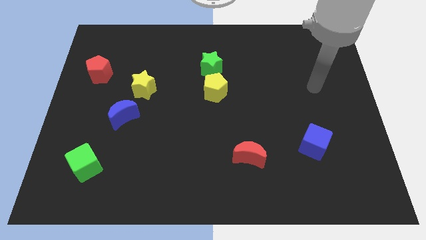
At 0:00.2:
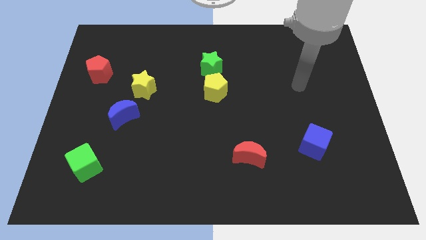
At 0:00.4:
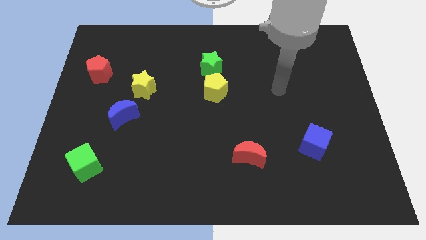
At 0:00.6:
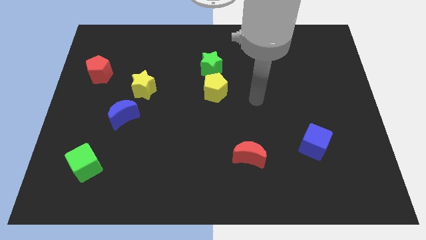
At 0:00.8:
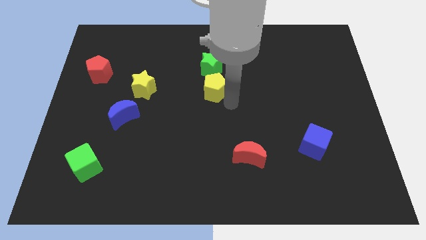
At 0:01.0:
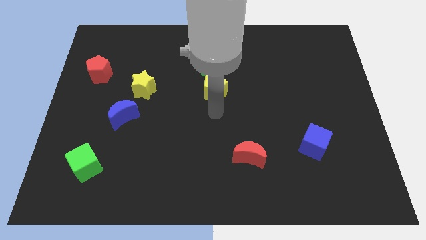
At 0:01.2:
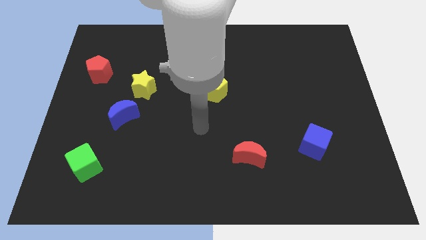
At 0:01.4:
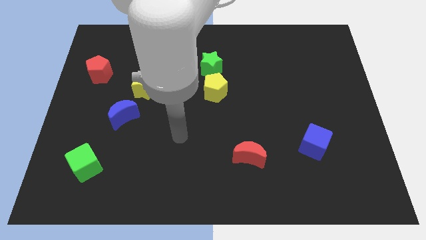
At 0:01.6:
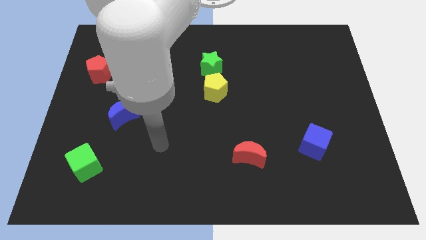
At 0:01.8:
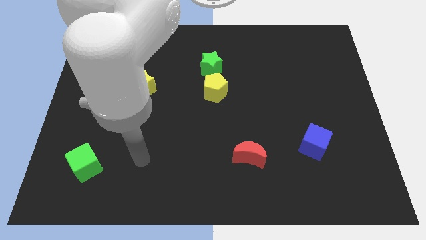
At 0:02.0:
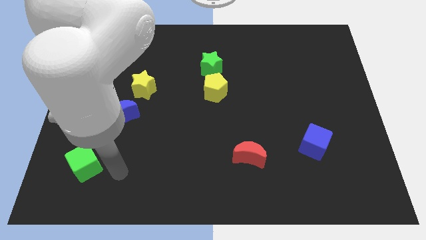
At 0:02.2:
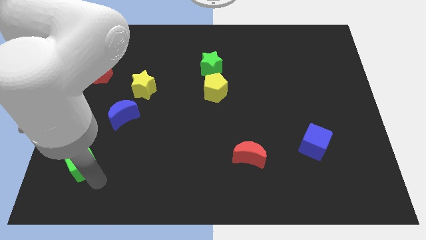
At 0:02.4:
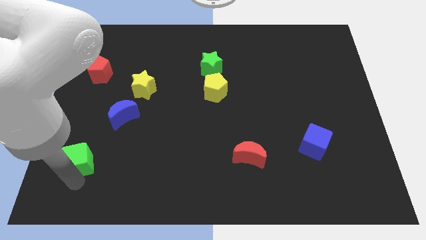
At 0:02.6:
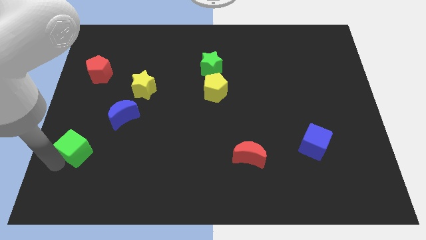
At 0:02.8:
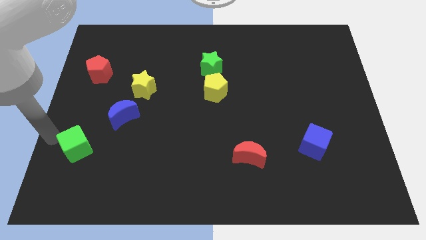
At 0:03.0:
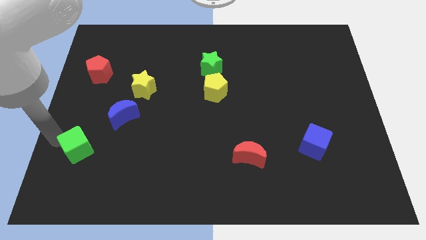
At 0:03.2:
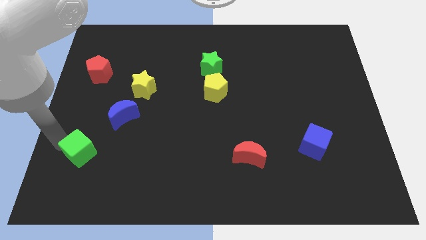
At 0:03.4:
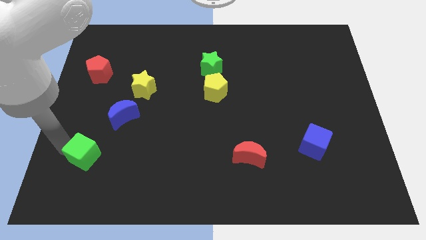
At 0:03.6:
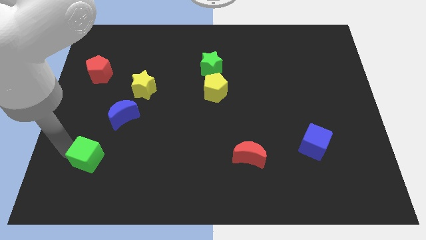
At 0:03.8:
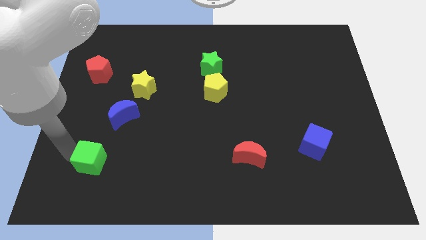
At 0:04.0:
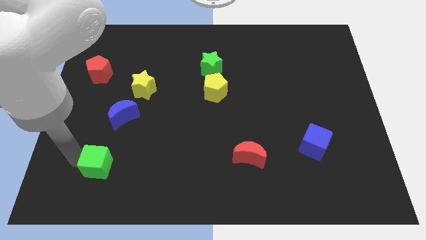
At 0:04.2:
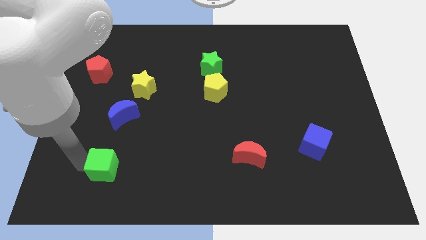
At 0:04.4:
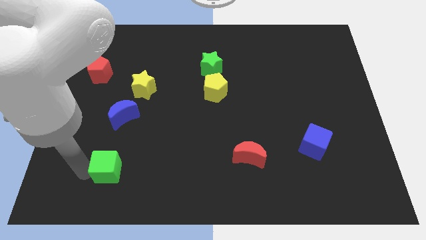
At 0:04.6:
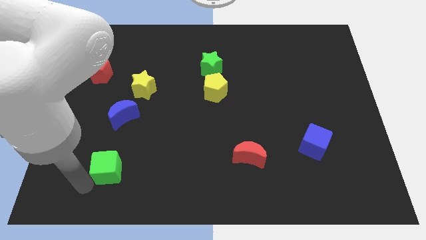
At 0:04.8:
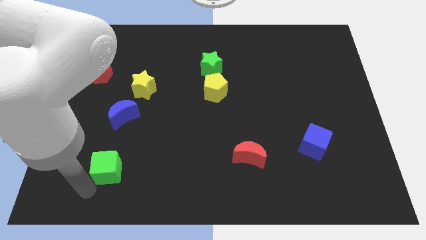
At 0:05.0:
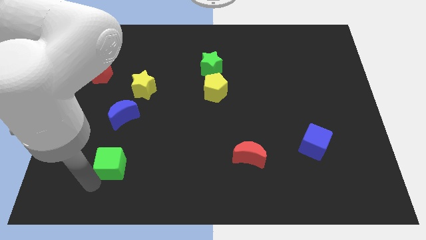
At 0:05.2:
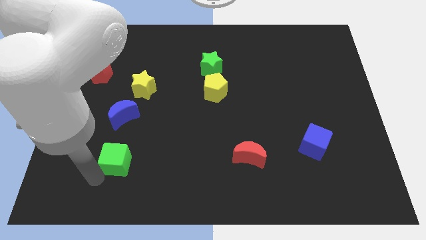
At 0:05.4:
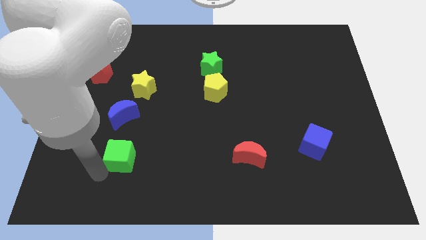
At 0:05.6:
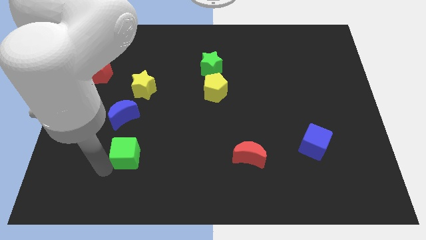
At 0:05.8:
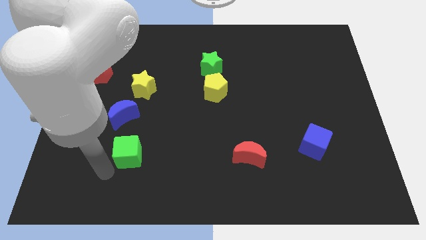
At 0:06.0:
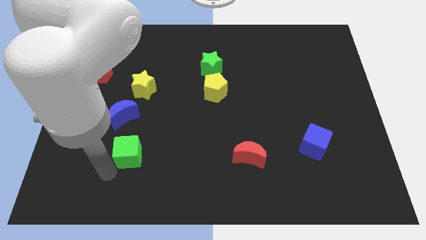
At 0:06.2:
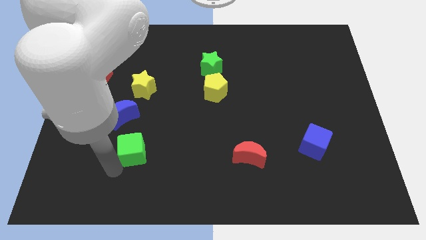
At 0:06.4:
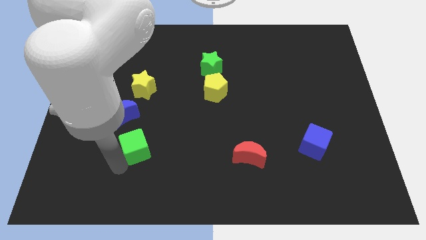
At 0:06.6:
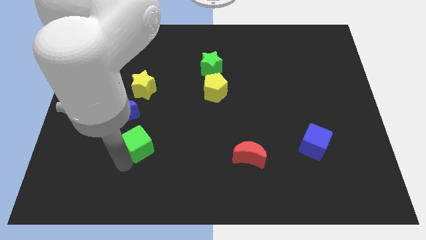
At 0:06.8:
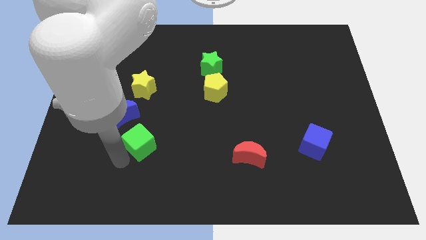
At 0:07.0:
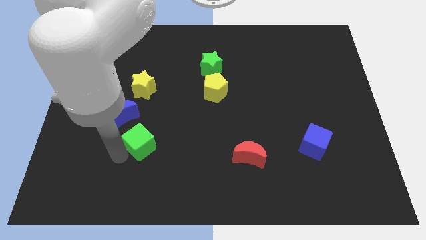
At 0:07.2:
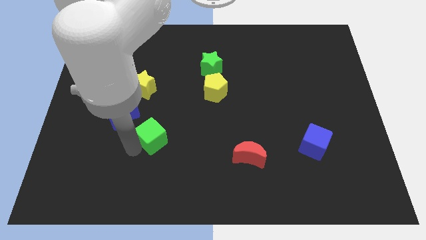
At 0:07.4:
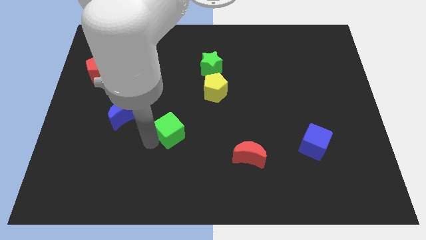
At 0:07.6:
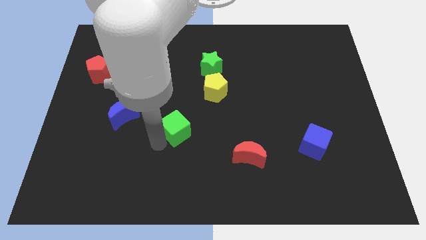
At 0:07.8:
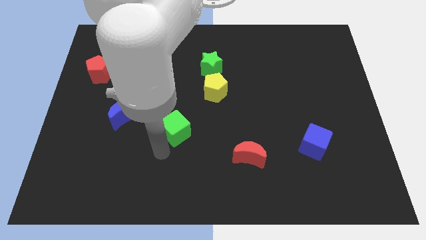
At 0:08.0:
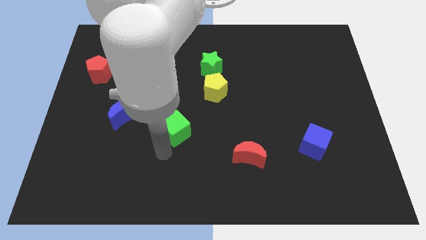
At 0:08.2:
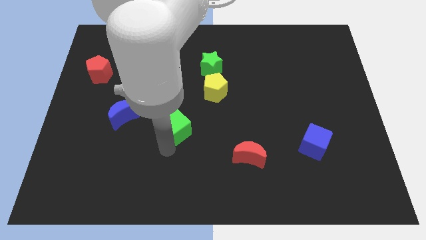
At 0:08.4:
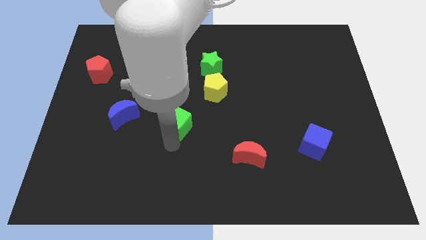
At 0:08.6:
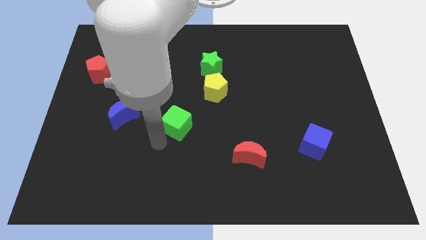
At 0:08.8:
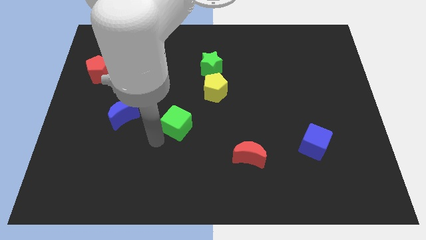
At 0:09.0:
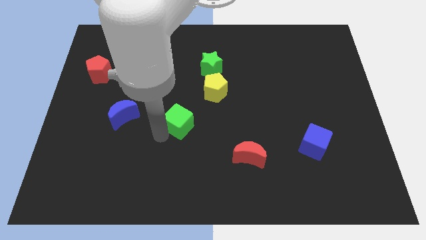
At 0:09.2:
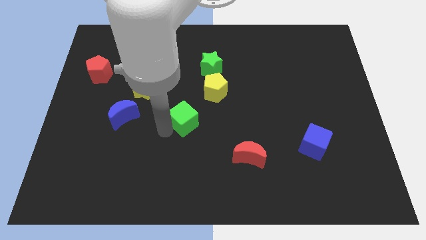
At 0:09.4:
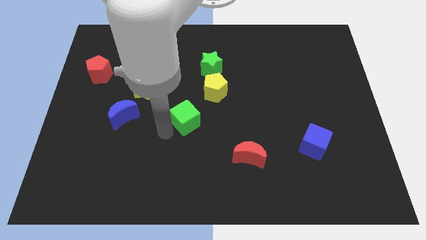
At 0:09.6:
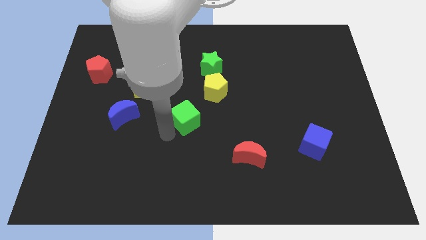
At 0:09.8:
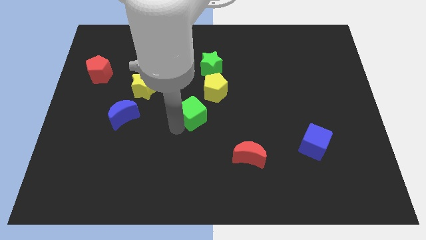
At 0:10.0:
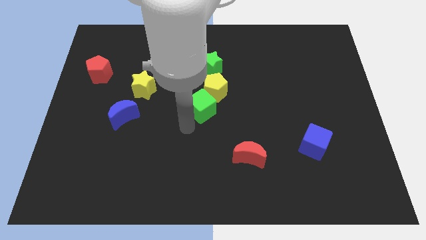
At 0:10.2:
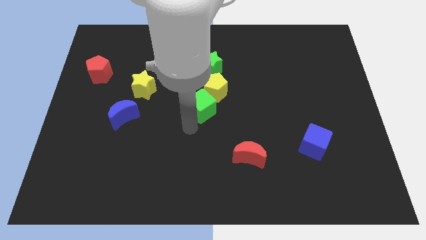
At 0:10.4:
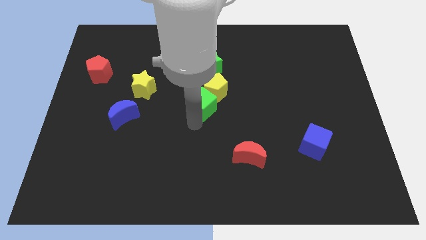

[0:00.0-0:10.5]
put the green cube towards the yellow pentagon

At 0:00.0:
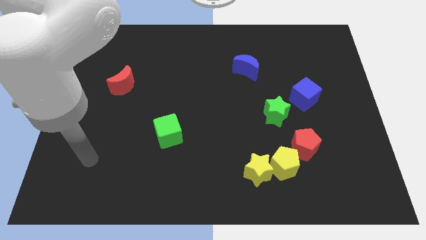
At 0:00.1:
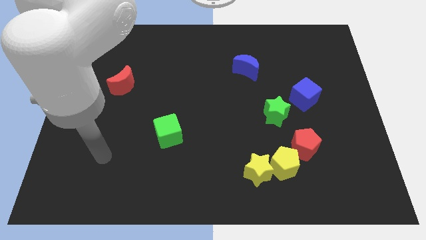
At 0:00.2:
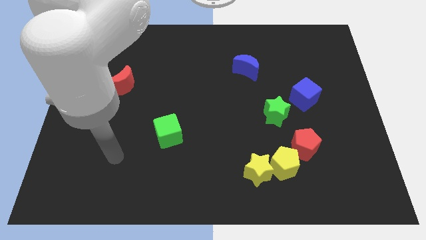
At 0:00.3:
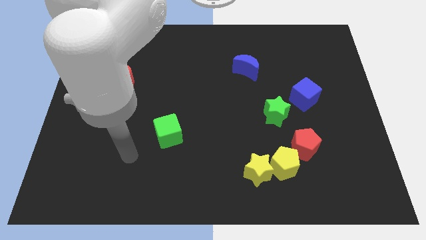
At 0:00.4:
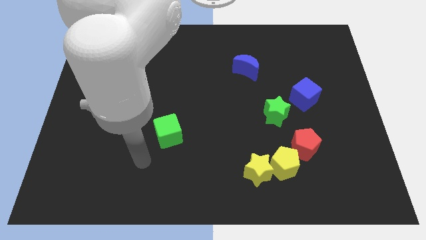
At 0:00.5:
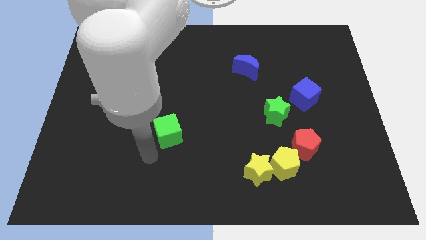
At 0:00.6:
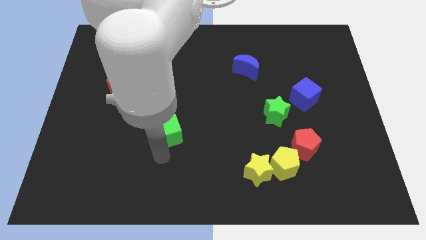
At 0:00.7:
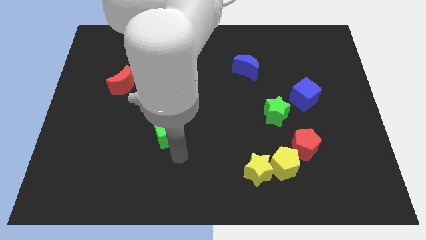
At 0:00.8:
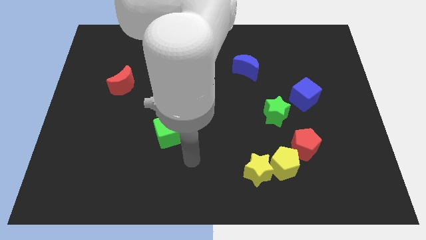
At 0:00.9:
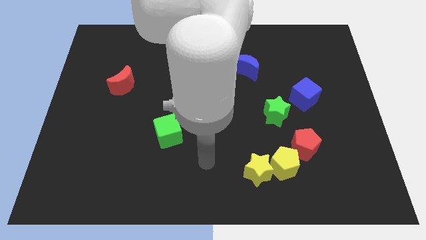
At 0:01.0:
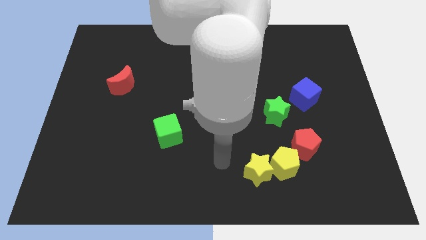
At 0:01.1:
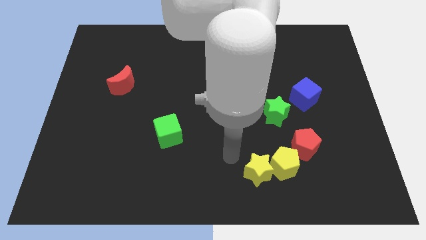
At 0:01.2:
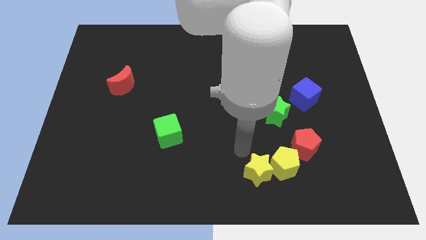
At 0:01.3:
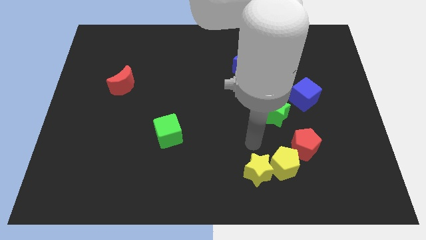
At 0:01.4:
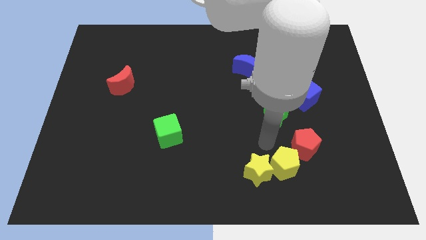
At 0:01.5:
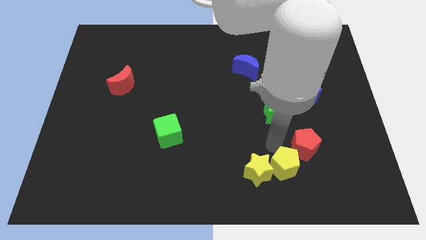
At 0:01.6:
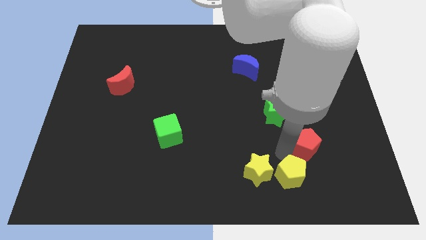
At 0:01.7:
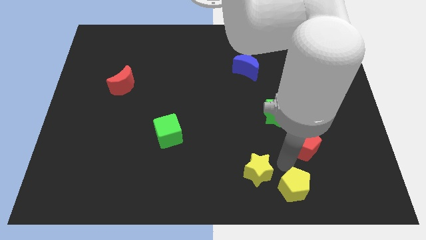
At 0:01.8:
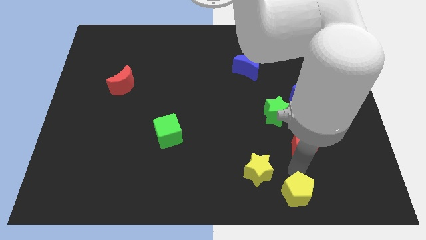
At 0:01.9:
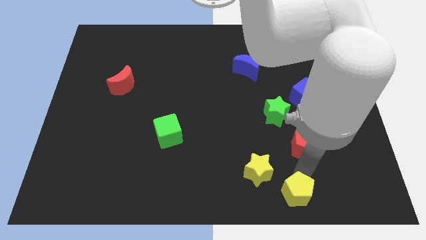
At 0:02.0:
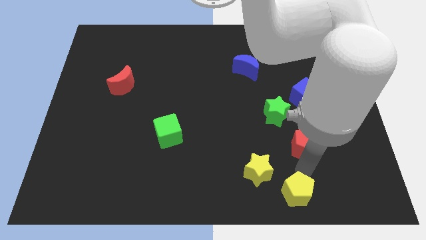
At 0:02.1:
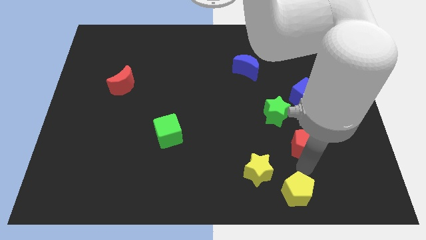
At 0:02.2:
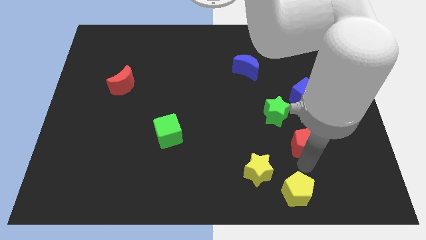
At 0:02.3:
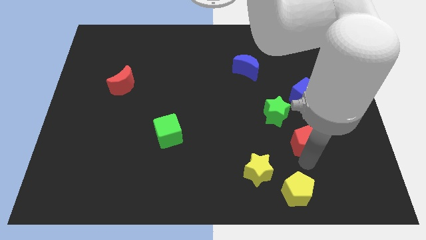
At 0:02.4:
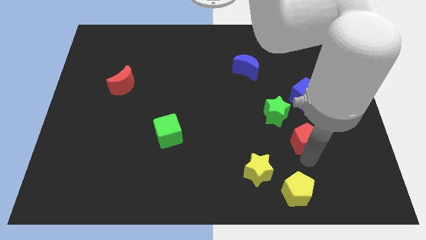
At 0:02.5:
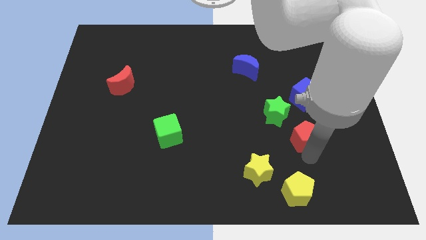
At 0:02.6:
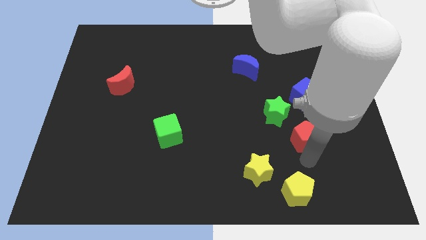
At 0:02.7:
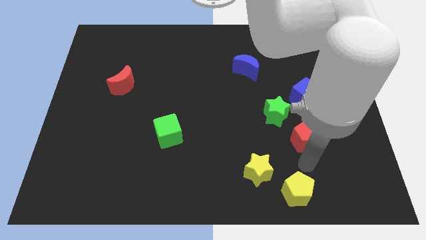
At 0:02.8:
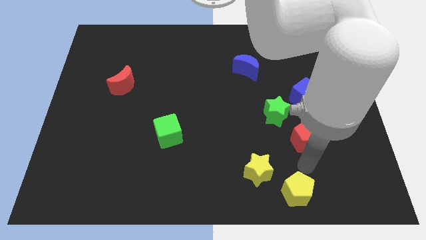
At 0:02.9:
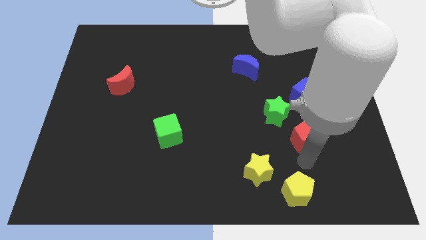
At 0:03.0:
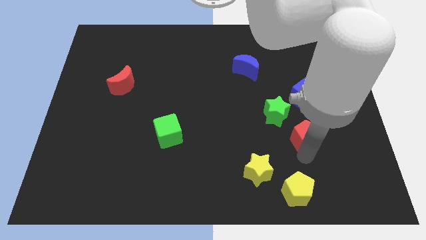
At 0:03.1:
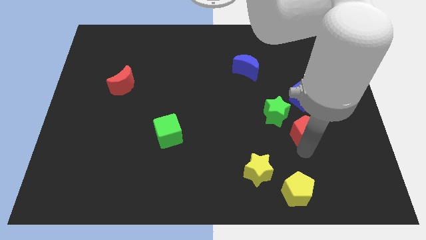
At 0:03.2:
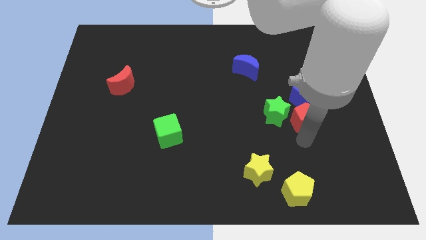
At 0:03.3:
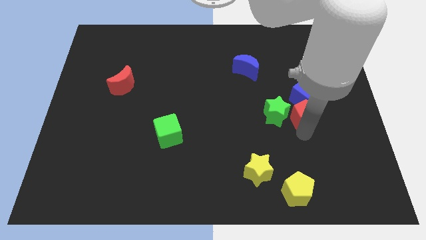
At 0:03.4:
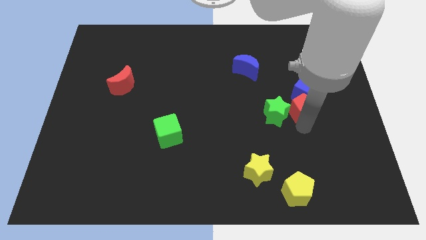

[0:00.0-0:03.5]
put the red pentagon towards the blue cube
